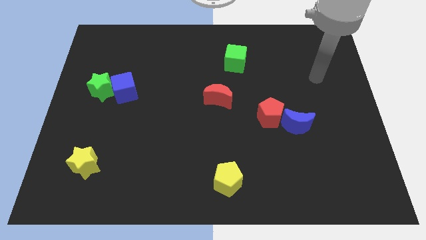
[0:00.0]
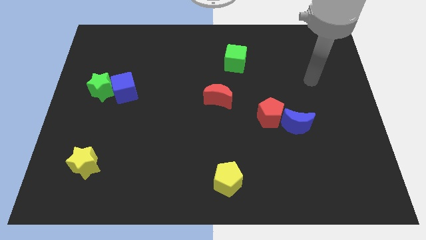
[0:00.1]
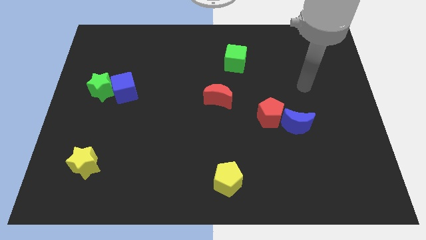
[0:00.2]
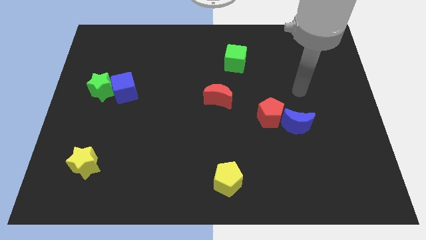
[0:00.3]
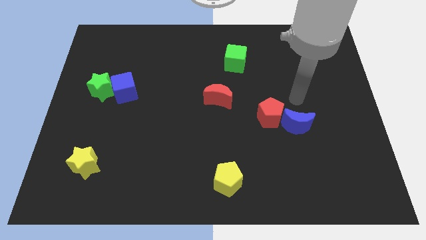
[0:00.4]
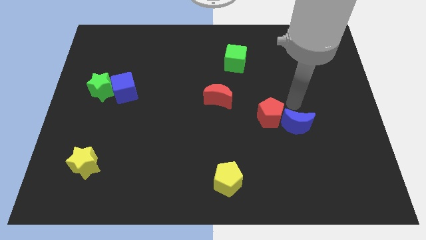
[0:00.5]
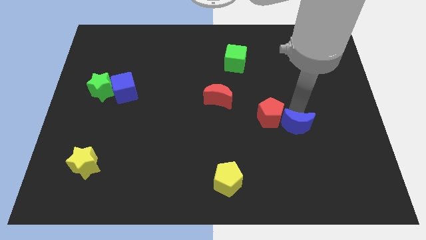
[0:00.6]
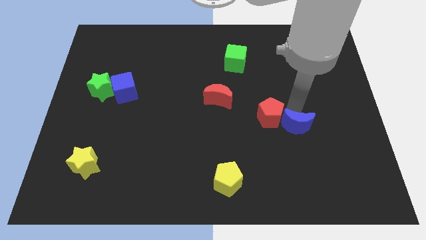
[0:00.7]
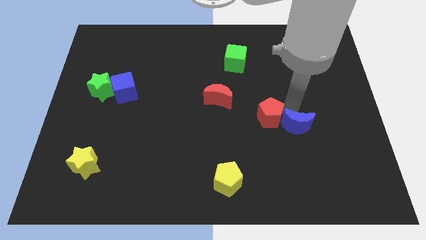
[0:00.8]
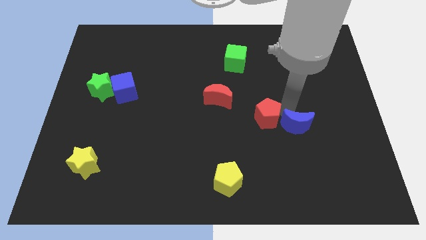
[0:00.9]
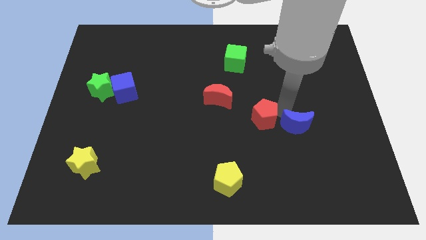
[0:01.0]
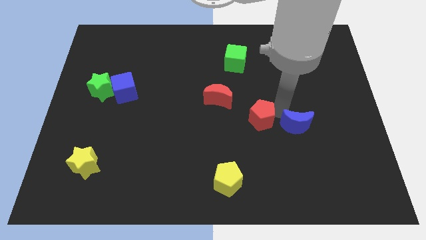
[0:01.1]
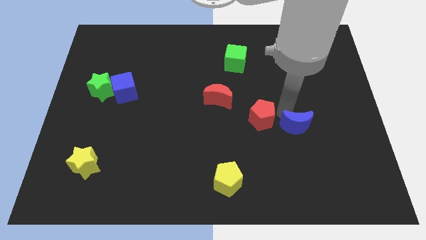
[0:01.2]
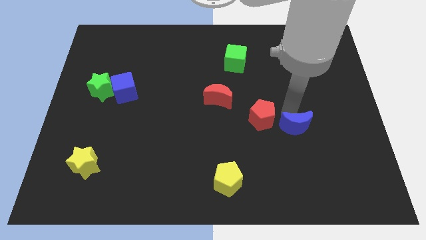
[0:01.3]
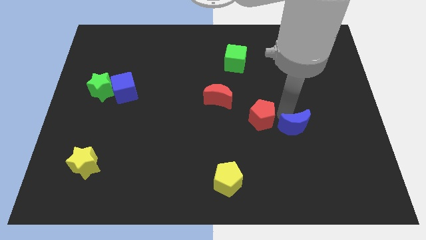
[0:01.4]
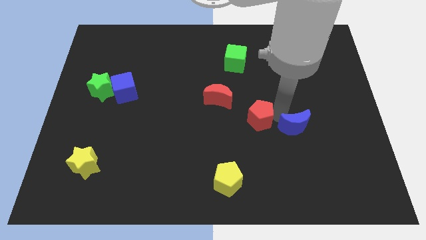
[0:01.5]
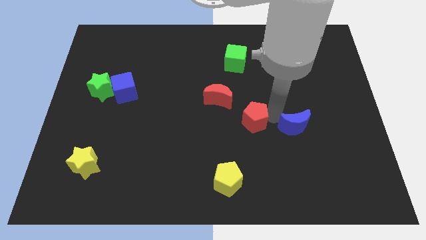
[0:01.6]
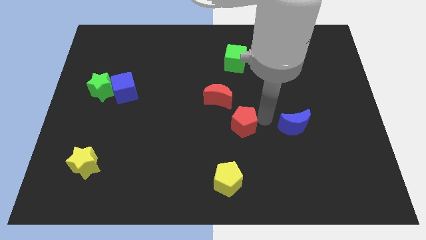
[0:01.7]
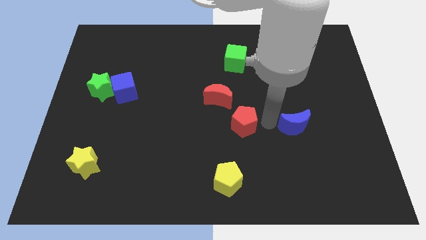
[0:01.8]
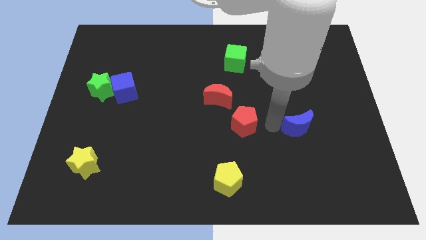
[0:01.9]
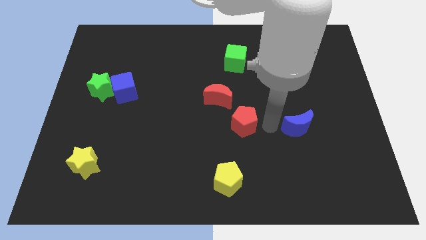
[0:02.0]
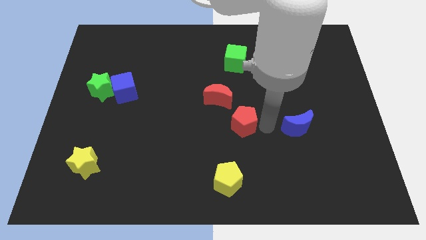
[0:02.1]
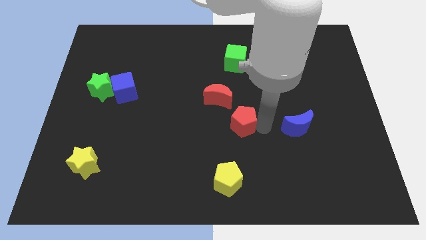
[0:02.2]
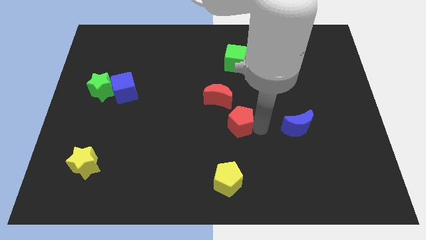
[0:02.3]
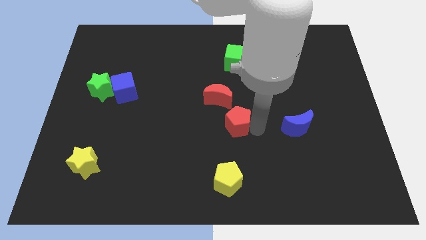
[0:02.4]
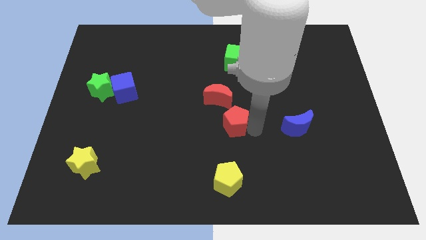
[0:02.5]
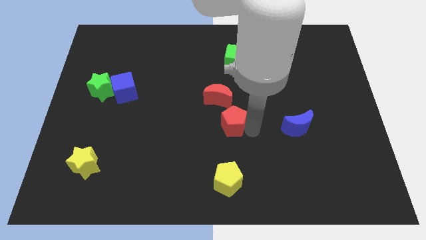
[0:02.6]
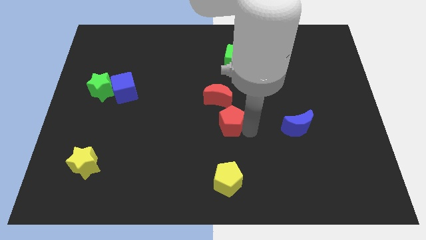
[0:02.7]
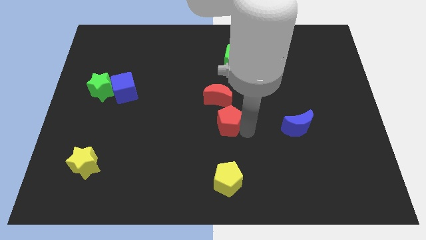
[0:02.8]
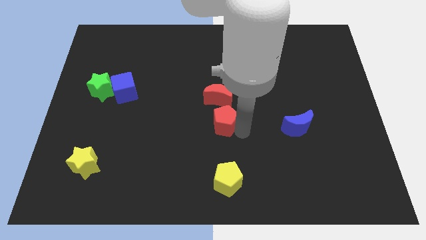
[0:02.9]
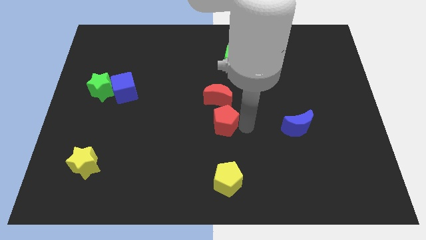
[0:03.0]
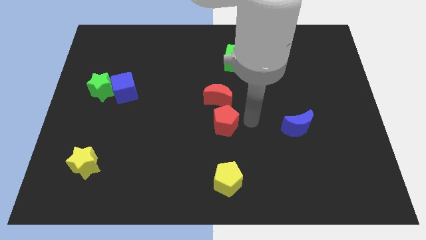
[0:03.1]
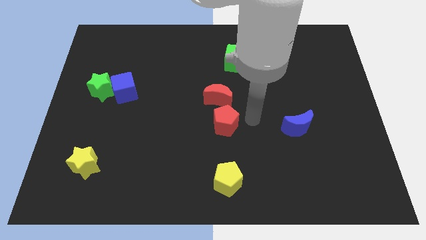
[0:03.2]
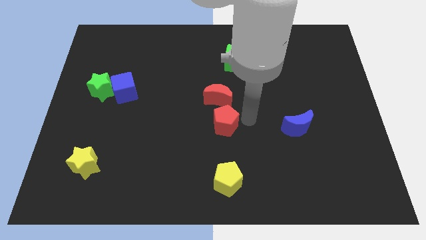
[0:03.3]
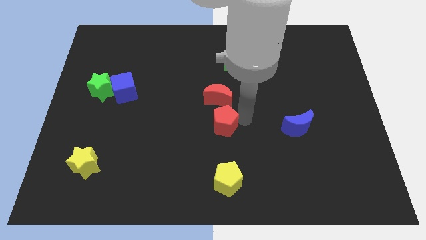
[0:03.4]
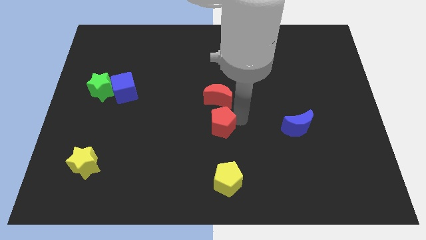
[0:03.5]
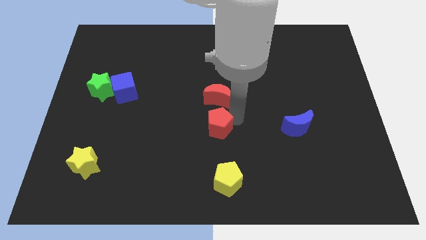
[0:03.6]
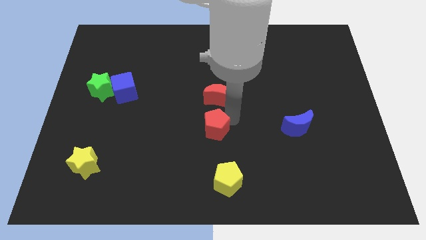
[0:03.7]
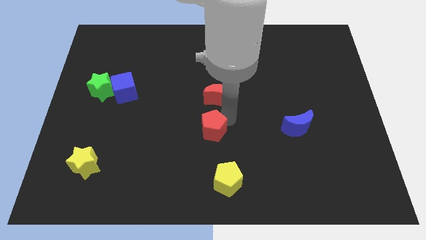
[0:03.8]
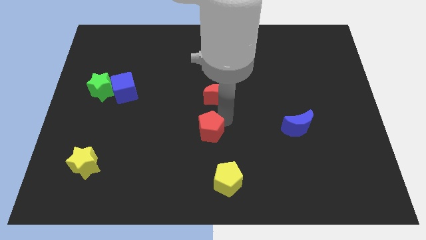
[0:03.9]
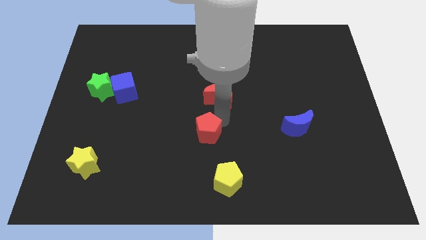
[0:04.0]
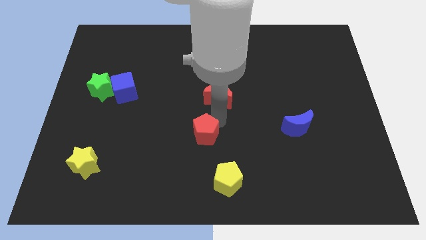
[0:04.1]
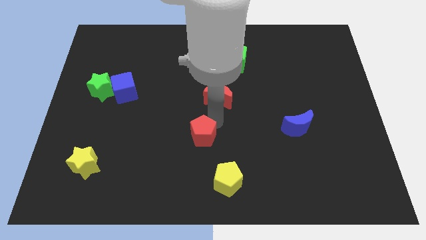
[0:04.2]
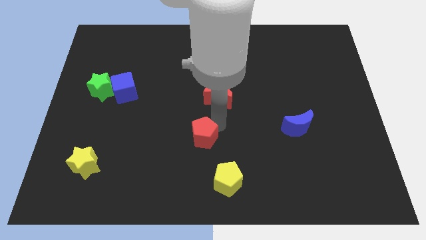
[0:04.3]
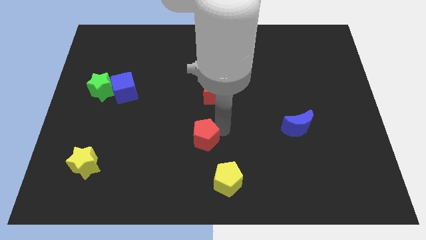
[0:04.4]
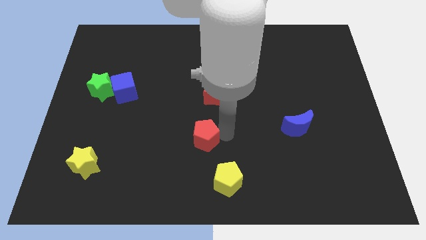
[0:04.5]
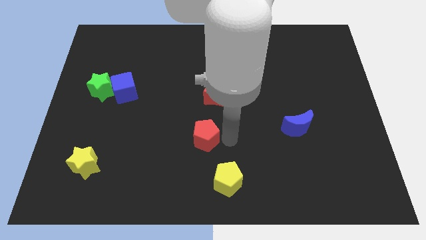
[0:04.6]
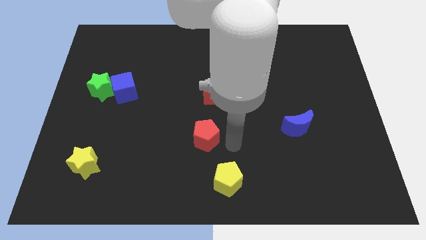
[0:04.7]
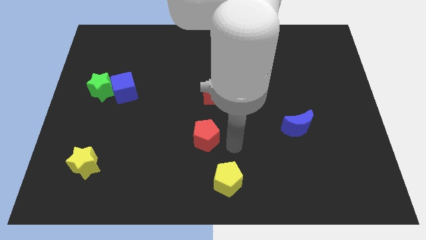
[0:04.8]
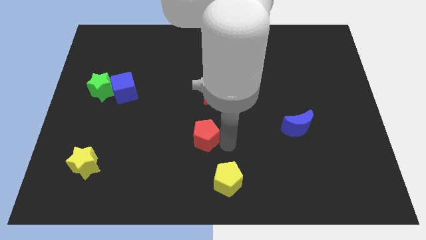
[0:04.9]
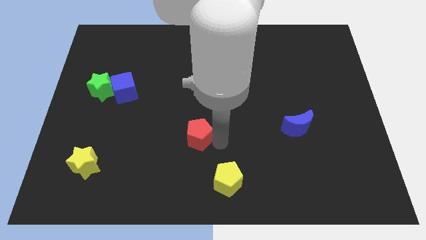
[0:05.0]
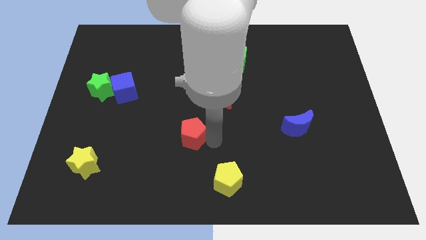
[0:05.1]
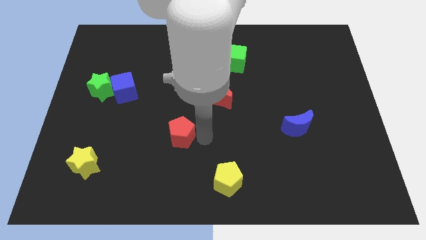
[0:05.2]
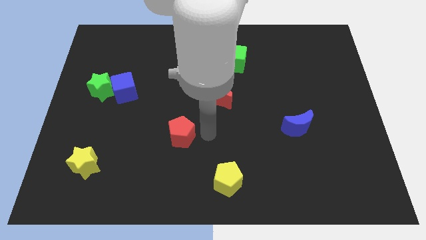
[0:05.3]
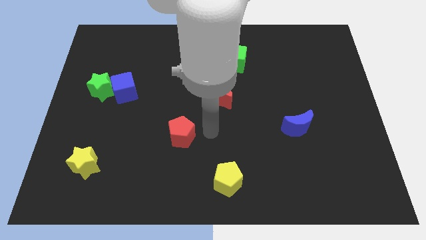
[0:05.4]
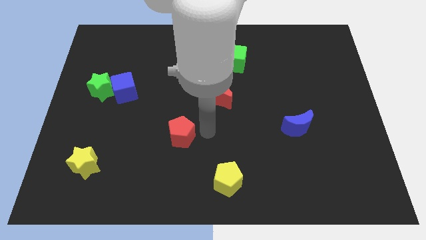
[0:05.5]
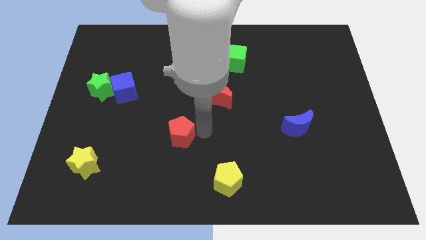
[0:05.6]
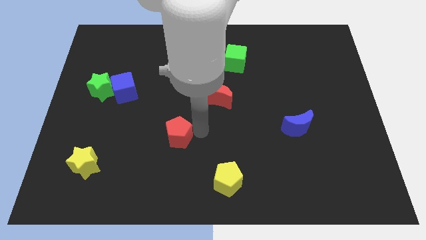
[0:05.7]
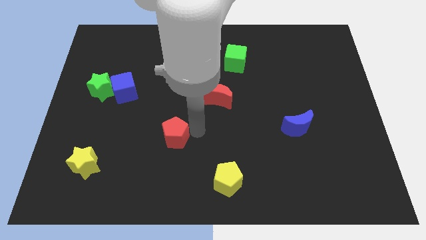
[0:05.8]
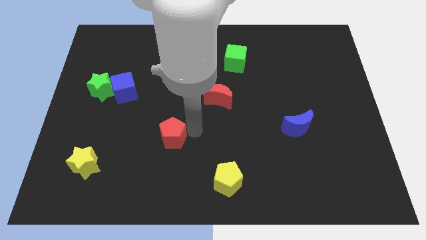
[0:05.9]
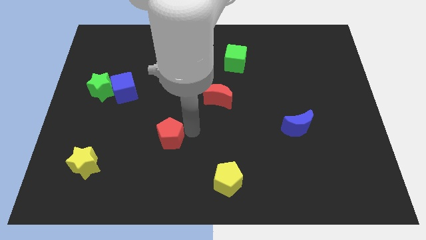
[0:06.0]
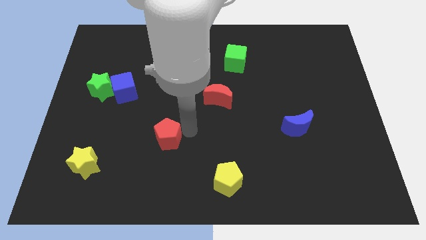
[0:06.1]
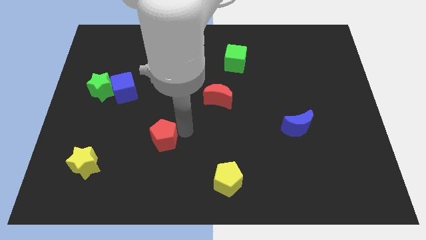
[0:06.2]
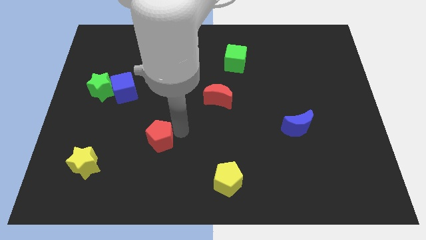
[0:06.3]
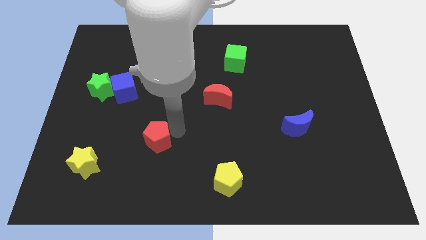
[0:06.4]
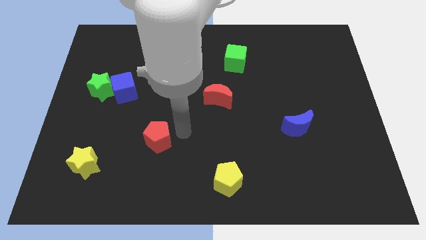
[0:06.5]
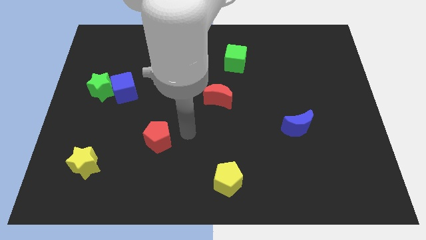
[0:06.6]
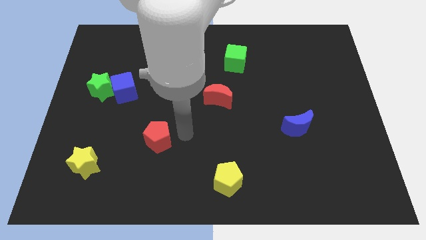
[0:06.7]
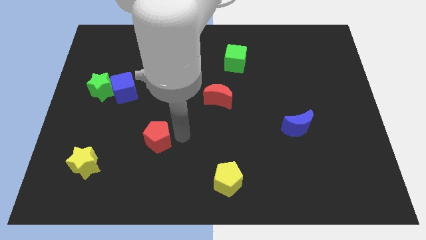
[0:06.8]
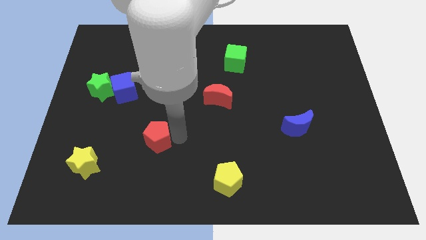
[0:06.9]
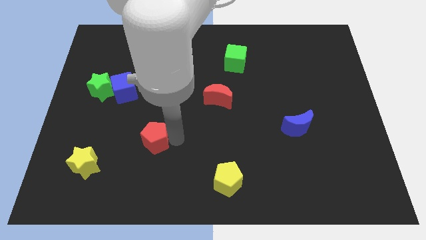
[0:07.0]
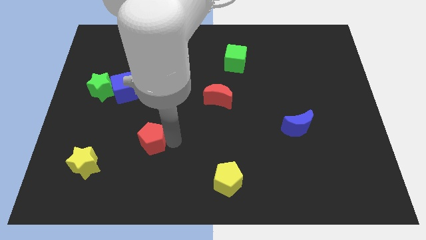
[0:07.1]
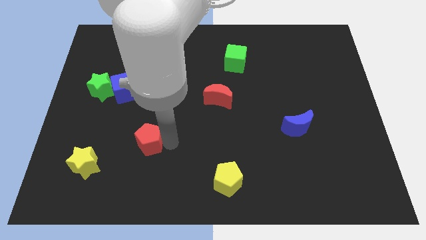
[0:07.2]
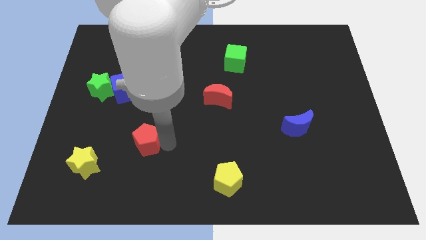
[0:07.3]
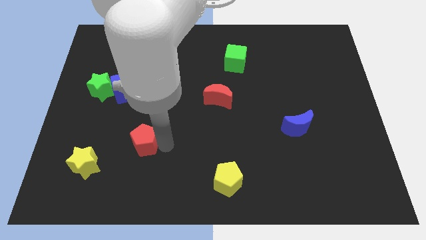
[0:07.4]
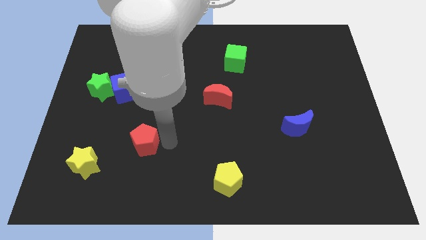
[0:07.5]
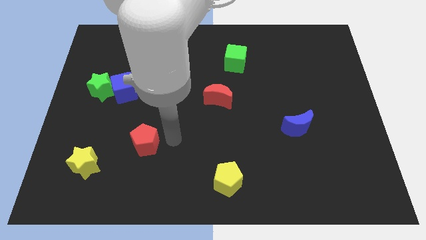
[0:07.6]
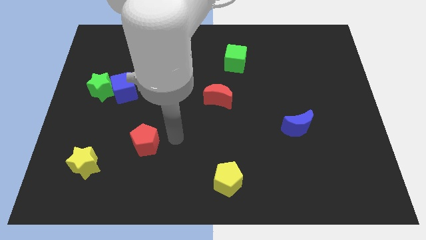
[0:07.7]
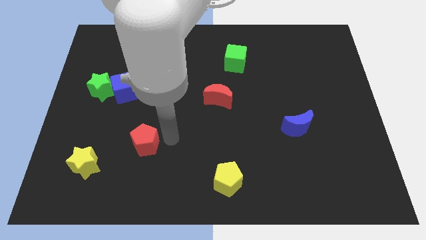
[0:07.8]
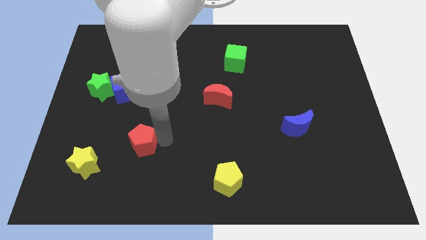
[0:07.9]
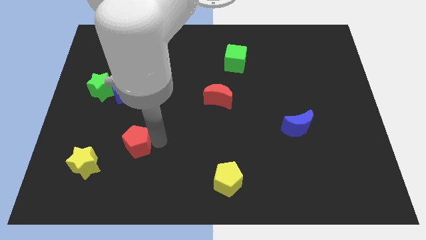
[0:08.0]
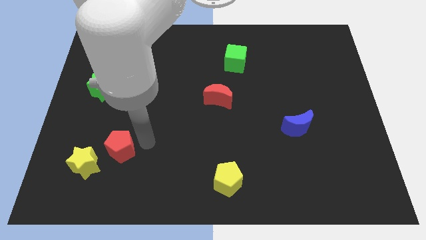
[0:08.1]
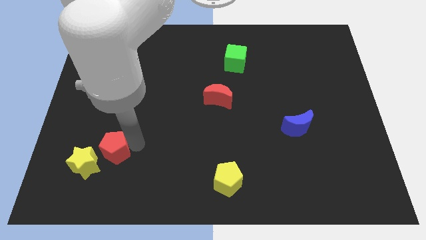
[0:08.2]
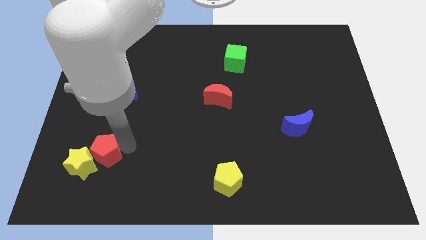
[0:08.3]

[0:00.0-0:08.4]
move the red pentagon close to the yellow star
